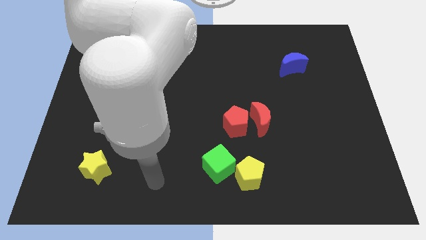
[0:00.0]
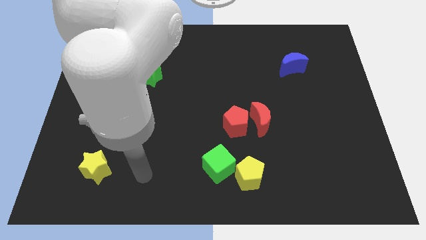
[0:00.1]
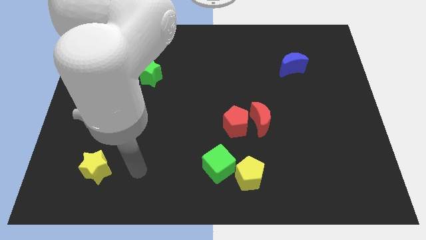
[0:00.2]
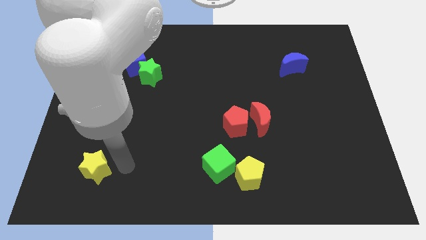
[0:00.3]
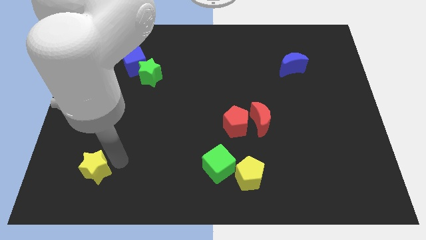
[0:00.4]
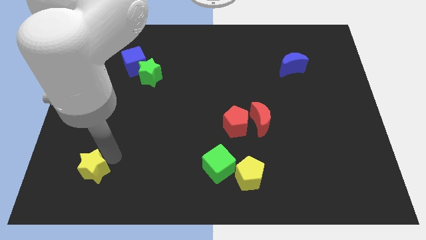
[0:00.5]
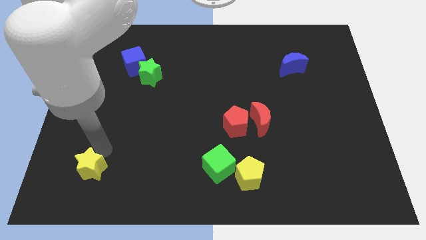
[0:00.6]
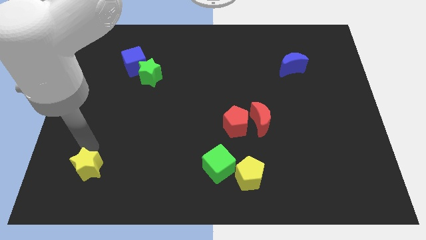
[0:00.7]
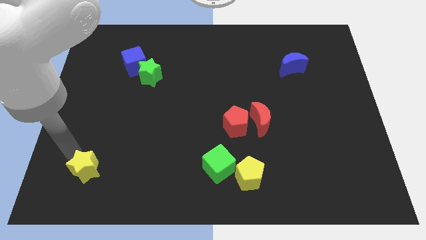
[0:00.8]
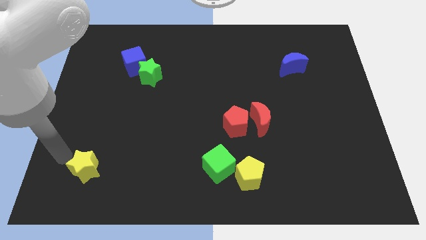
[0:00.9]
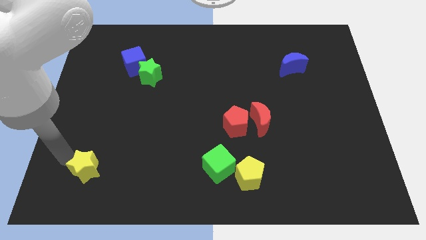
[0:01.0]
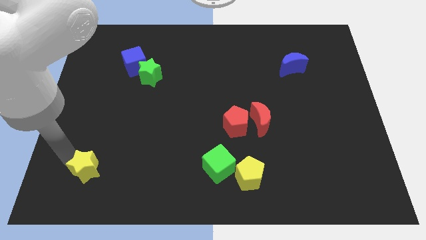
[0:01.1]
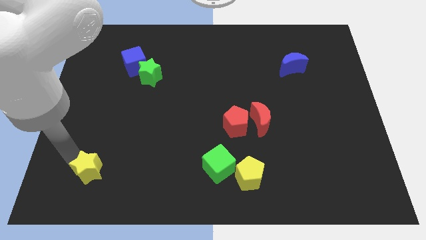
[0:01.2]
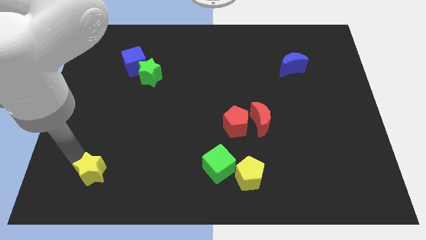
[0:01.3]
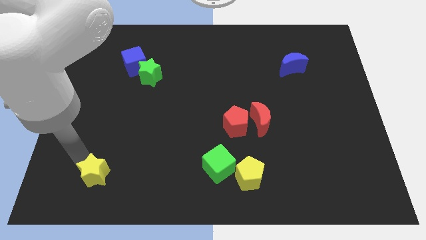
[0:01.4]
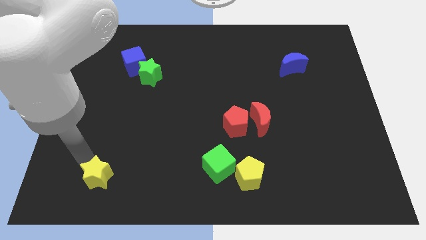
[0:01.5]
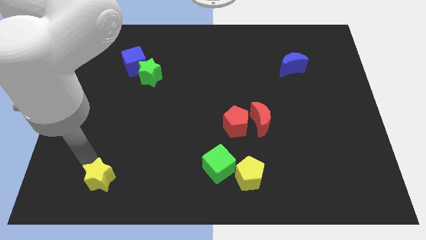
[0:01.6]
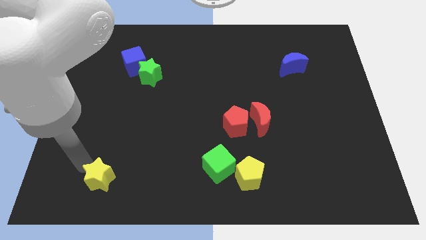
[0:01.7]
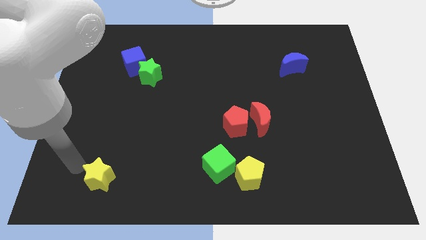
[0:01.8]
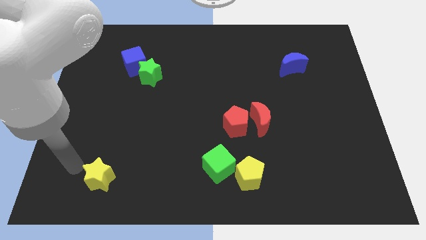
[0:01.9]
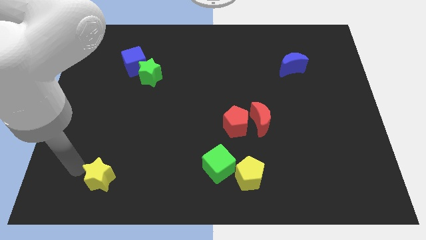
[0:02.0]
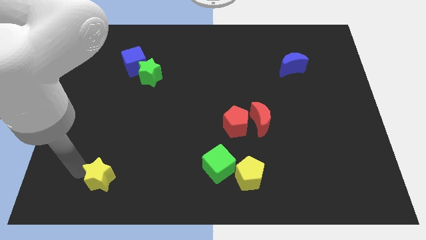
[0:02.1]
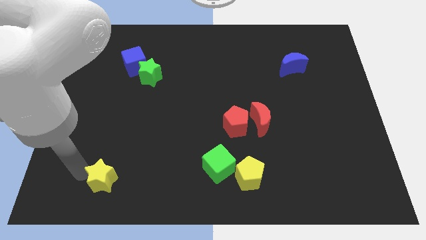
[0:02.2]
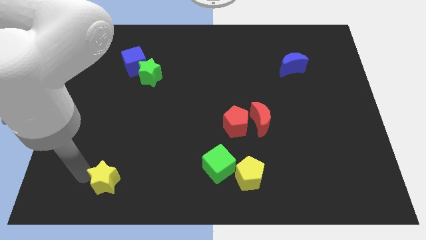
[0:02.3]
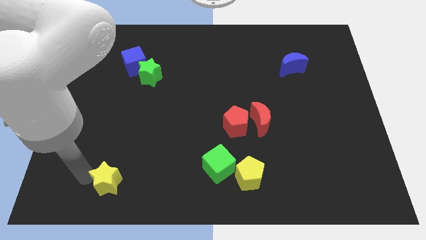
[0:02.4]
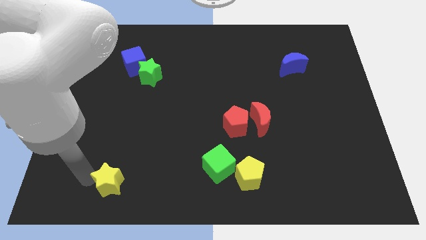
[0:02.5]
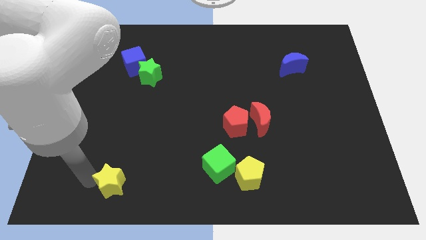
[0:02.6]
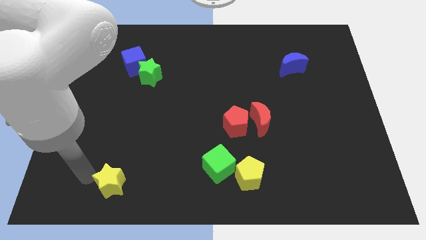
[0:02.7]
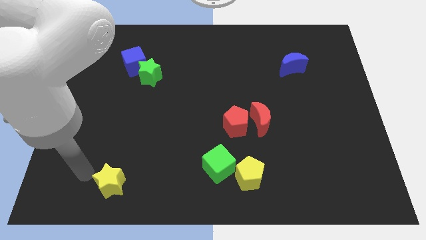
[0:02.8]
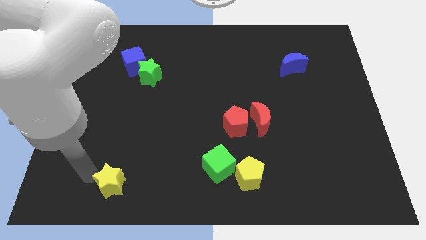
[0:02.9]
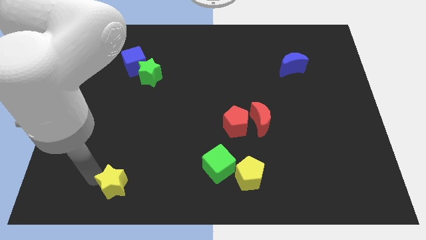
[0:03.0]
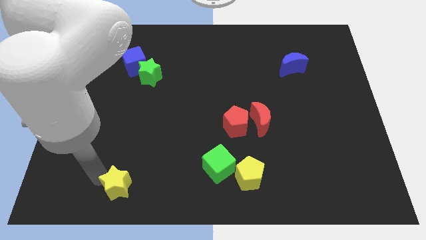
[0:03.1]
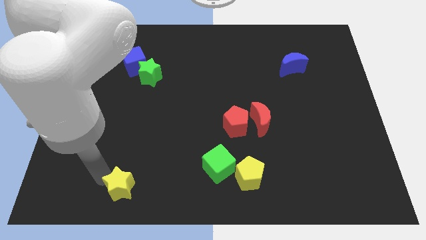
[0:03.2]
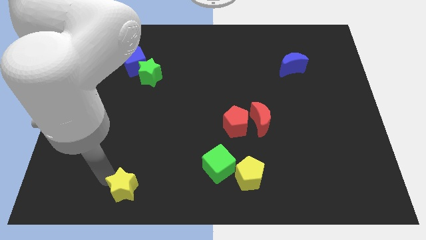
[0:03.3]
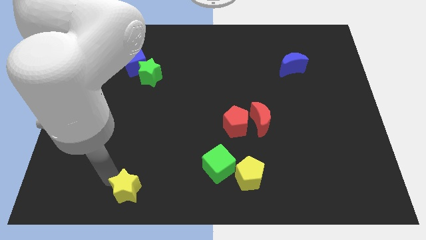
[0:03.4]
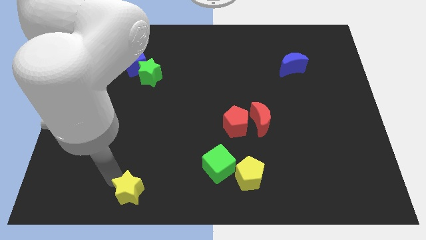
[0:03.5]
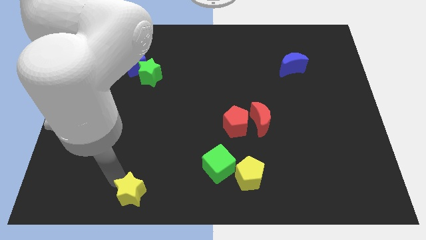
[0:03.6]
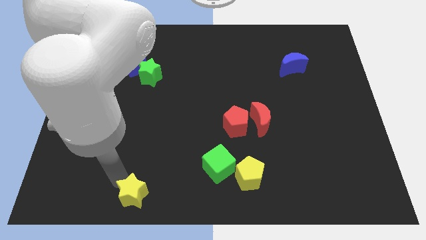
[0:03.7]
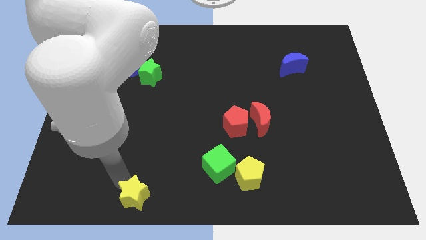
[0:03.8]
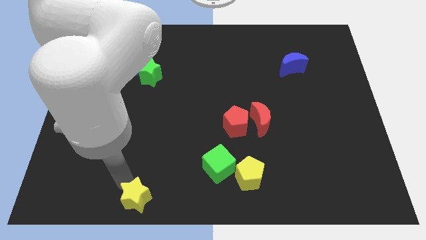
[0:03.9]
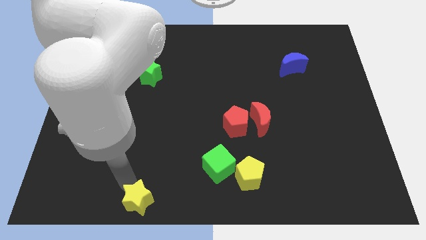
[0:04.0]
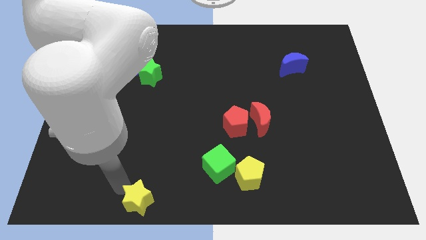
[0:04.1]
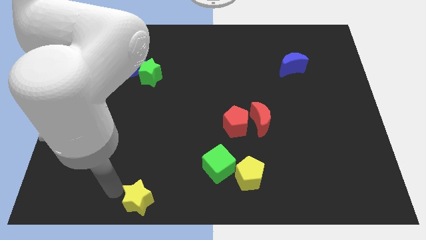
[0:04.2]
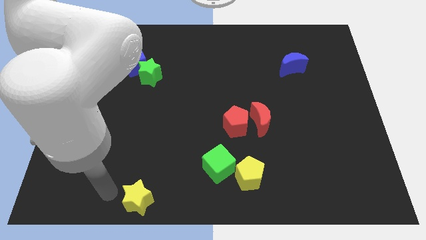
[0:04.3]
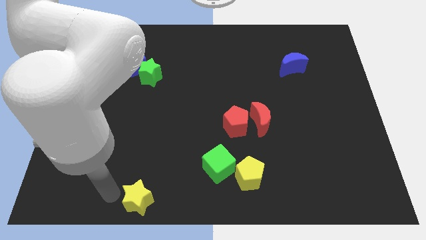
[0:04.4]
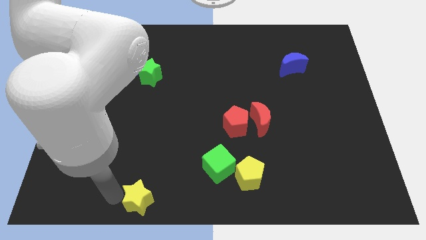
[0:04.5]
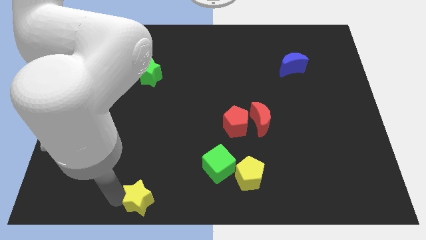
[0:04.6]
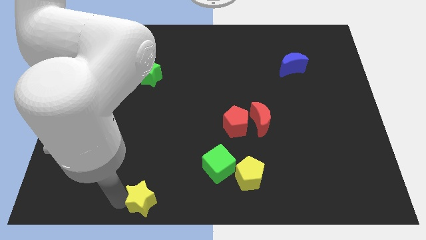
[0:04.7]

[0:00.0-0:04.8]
put the yellow star to the bottom side

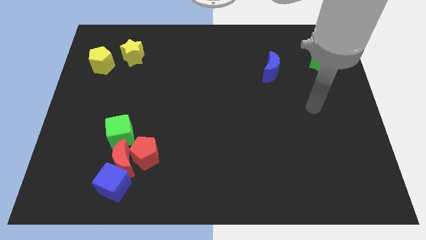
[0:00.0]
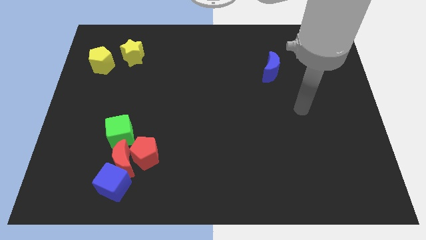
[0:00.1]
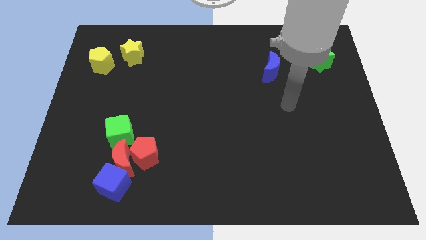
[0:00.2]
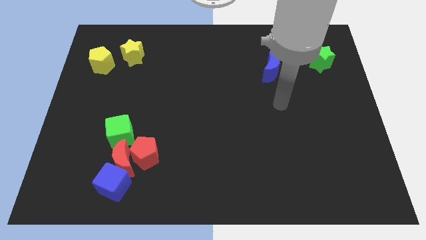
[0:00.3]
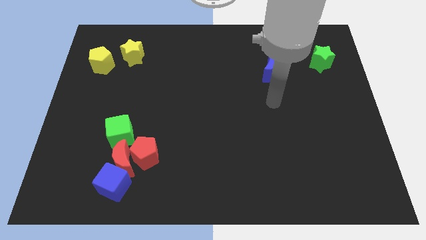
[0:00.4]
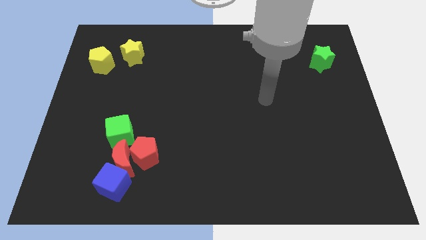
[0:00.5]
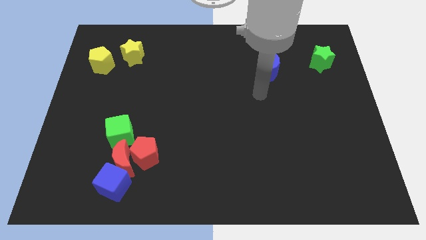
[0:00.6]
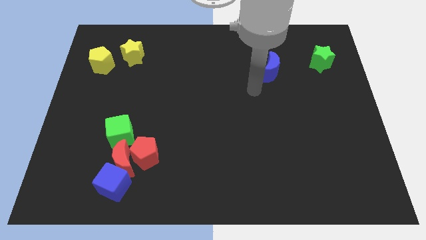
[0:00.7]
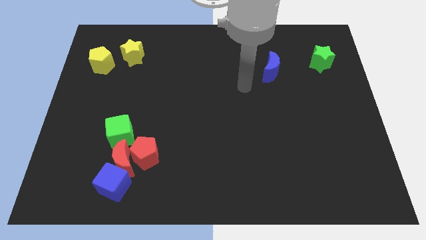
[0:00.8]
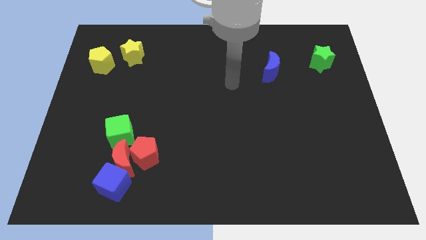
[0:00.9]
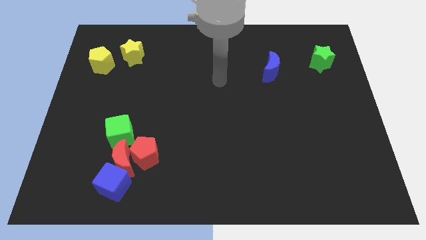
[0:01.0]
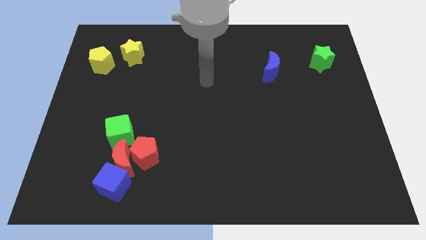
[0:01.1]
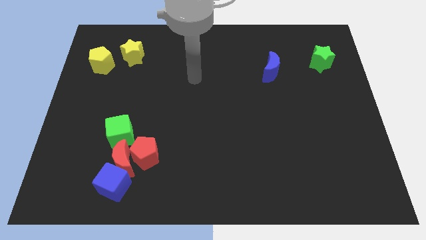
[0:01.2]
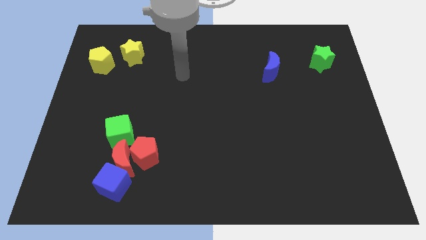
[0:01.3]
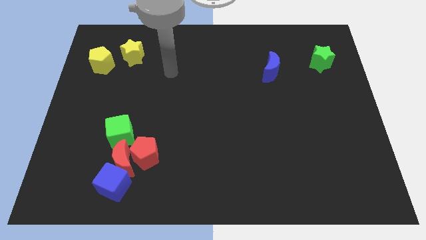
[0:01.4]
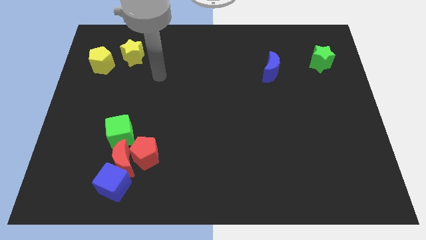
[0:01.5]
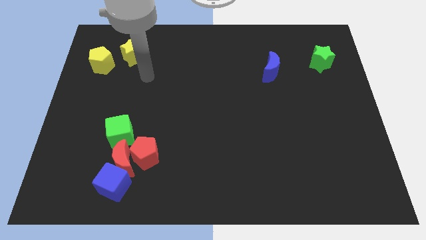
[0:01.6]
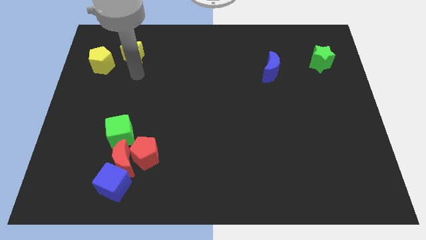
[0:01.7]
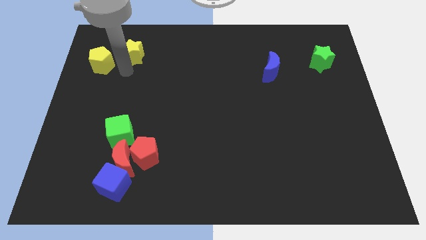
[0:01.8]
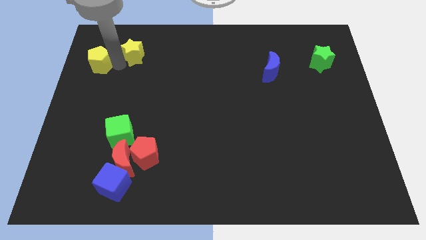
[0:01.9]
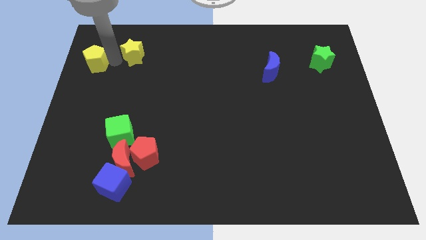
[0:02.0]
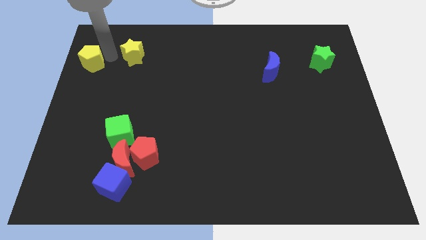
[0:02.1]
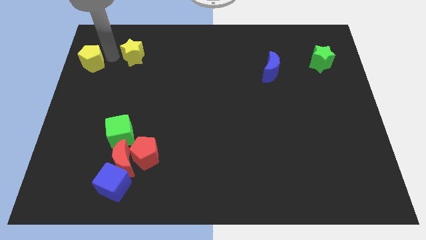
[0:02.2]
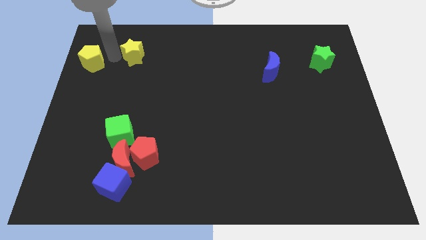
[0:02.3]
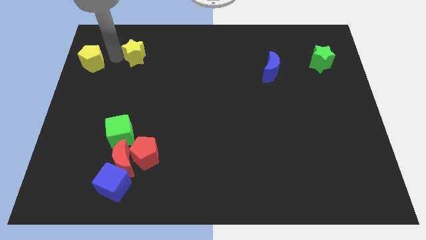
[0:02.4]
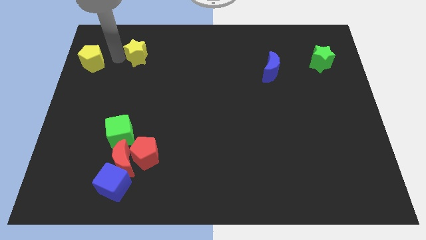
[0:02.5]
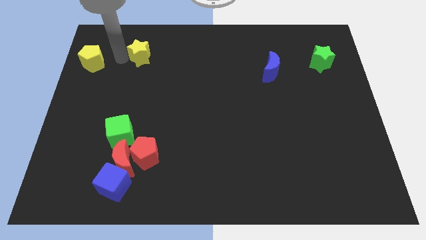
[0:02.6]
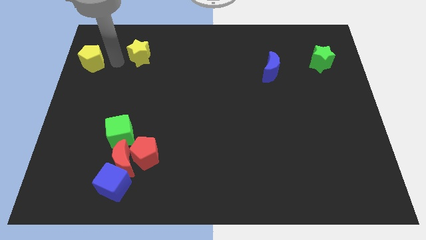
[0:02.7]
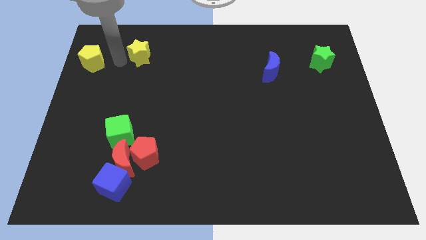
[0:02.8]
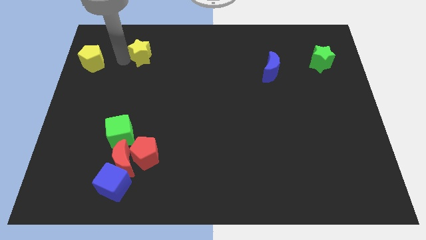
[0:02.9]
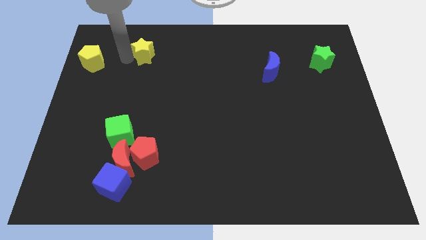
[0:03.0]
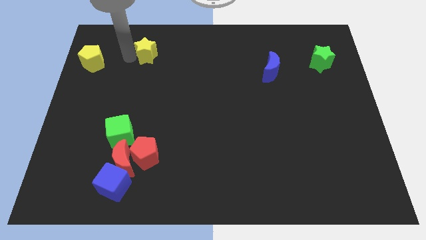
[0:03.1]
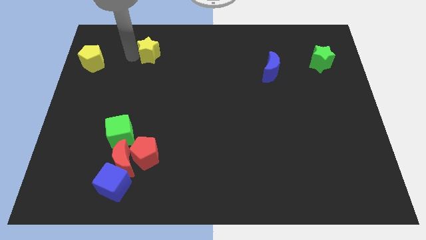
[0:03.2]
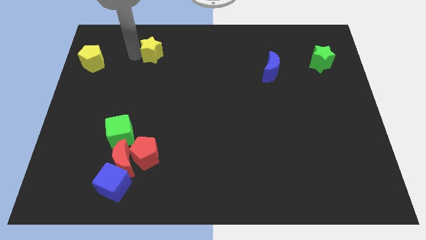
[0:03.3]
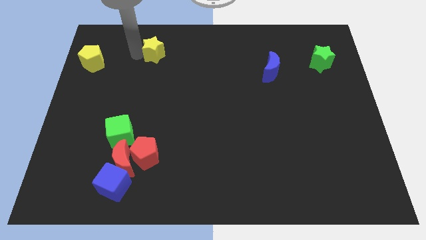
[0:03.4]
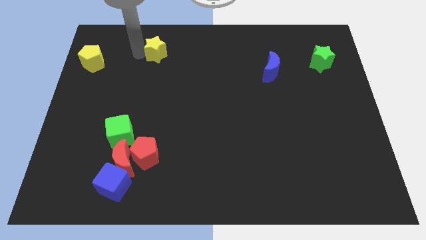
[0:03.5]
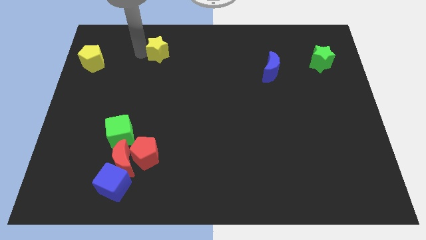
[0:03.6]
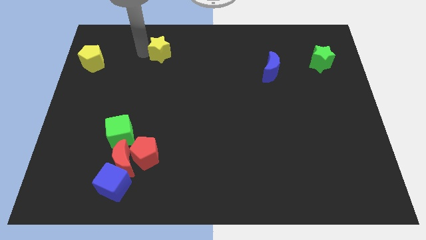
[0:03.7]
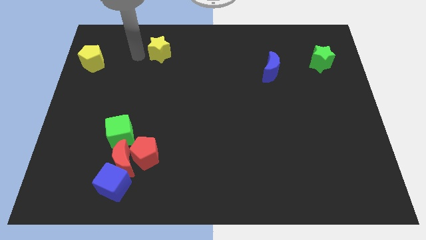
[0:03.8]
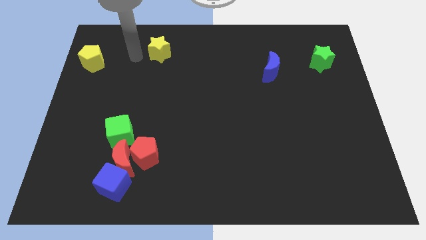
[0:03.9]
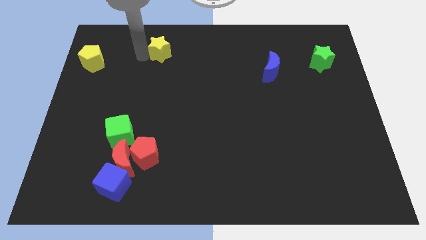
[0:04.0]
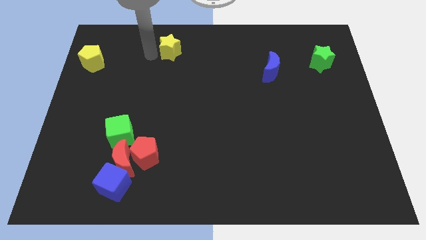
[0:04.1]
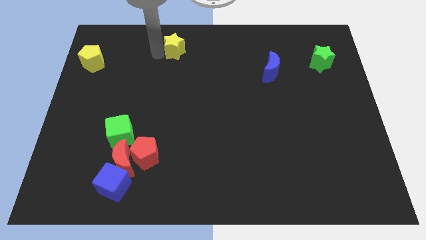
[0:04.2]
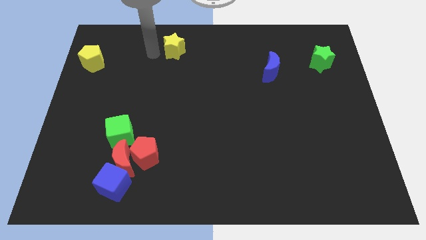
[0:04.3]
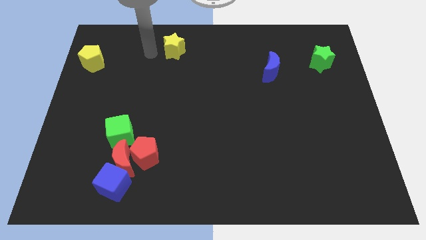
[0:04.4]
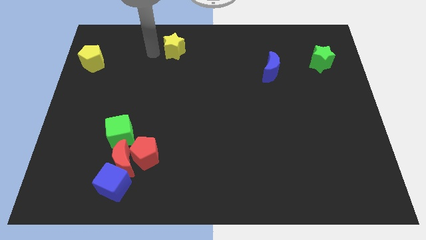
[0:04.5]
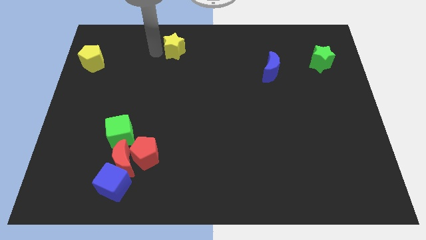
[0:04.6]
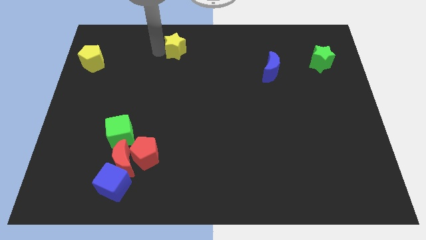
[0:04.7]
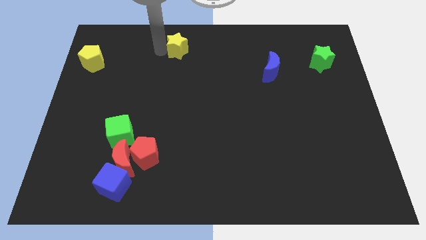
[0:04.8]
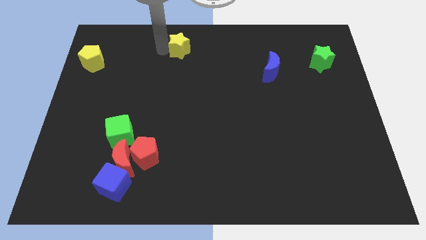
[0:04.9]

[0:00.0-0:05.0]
push the yellow star to the towards your base
